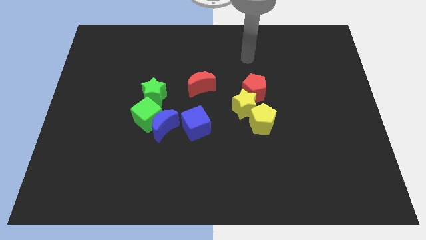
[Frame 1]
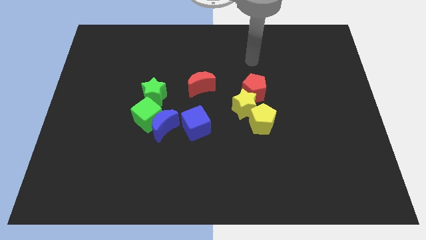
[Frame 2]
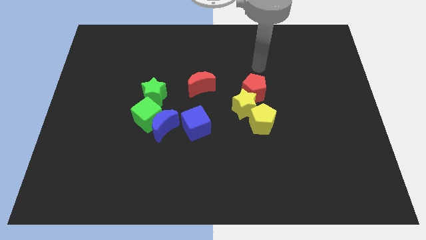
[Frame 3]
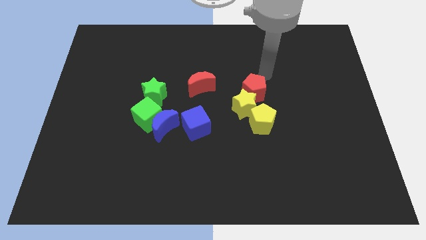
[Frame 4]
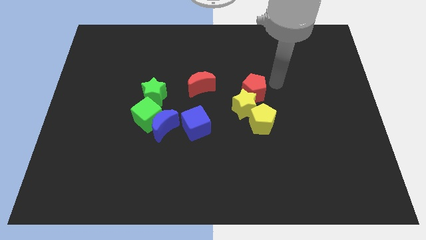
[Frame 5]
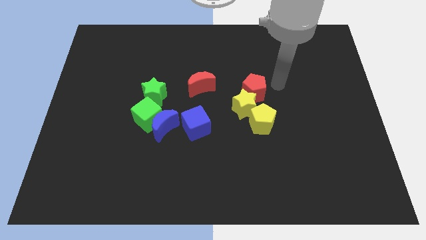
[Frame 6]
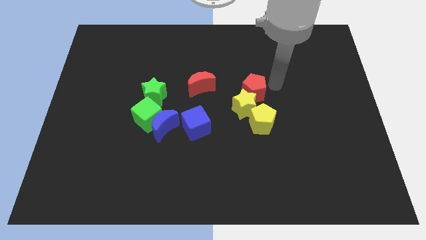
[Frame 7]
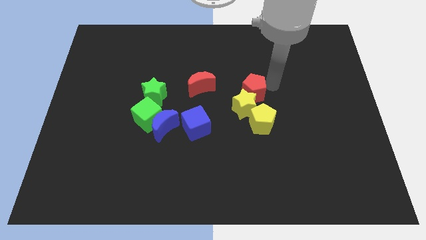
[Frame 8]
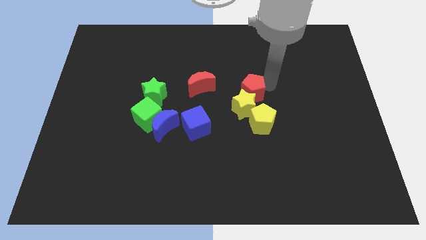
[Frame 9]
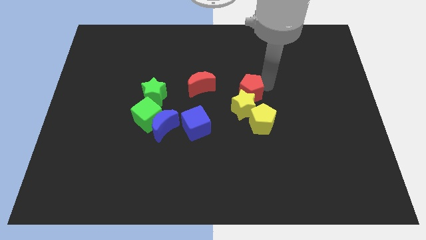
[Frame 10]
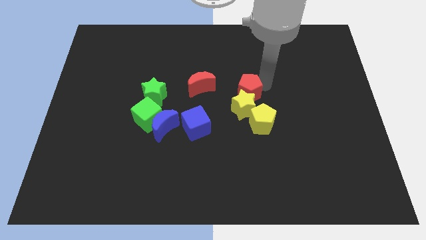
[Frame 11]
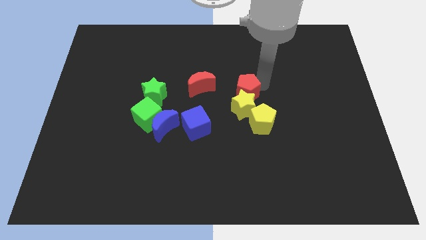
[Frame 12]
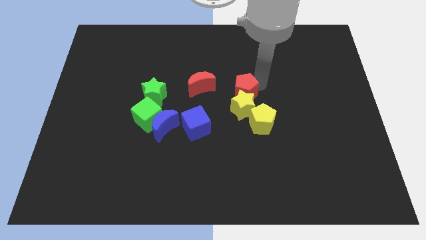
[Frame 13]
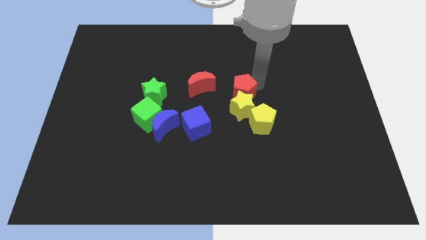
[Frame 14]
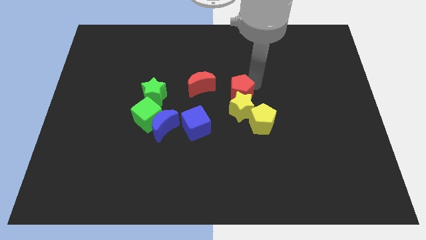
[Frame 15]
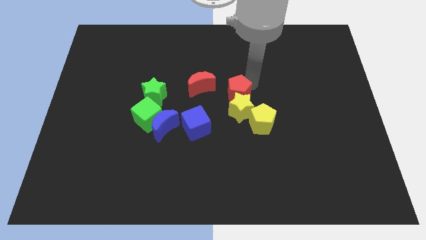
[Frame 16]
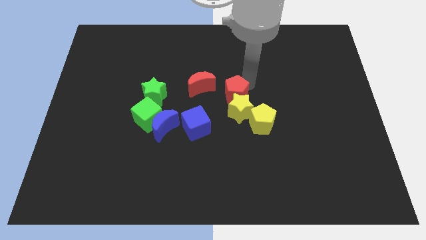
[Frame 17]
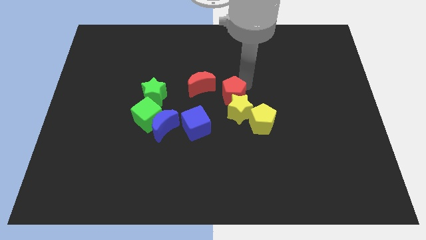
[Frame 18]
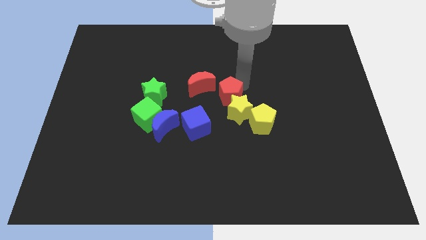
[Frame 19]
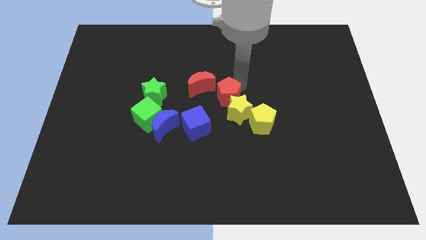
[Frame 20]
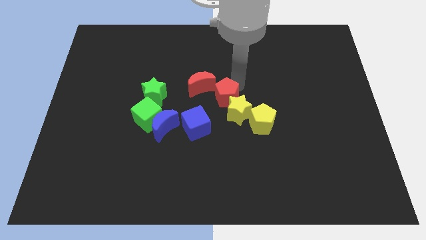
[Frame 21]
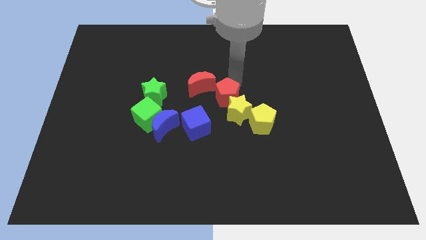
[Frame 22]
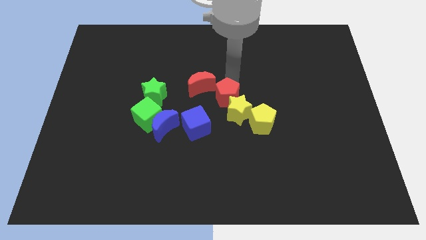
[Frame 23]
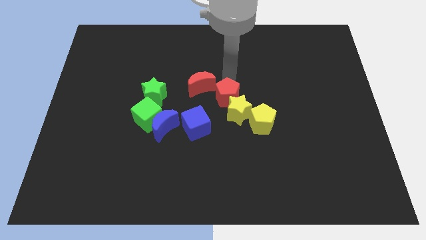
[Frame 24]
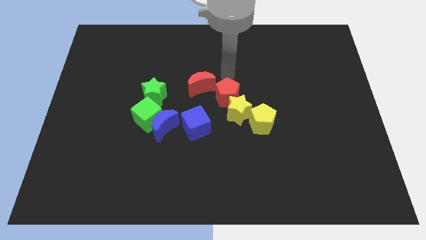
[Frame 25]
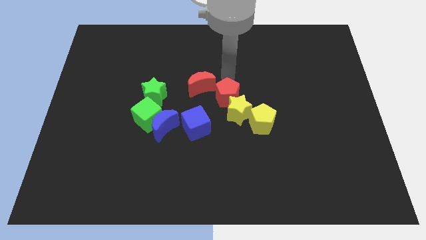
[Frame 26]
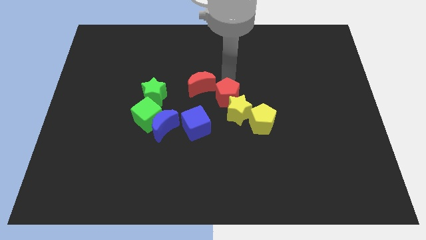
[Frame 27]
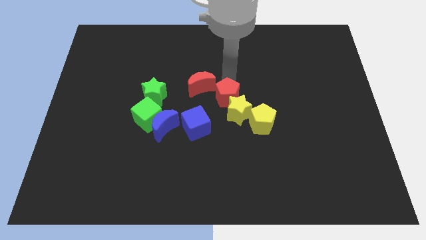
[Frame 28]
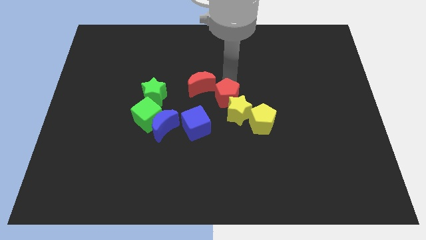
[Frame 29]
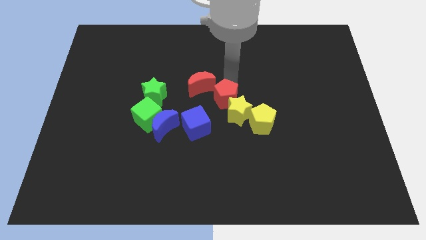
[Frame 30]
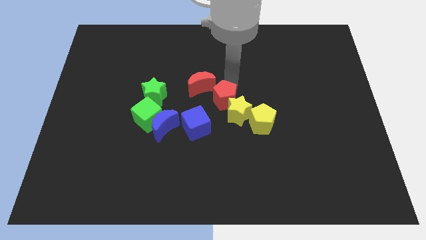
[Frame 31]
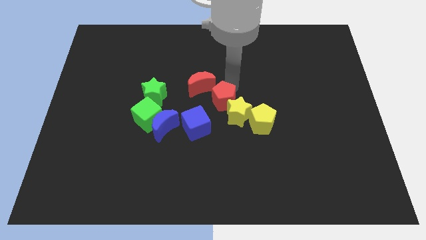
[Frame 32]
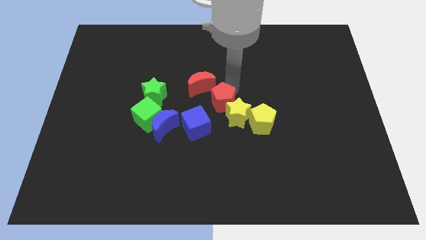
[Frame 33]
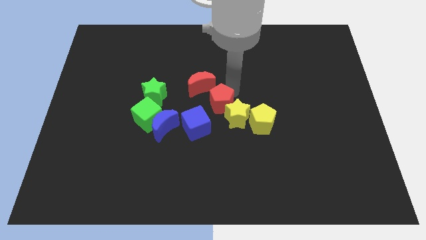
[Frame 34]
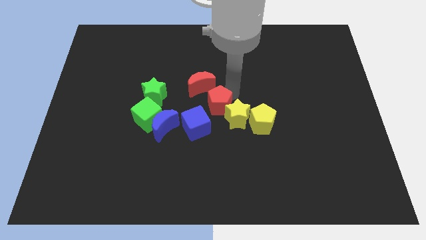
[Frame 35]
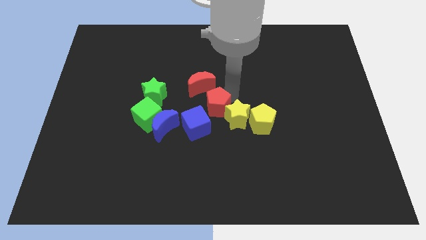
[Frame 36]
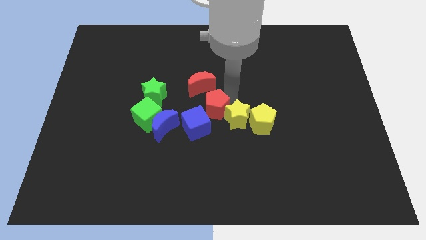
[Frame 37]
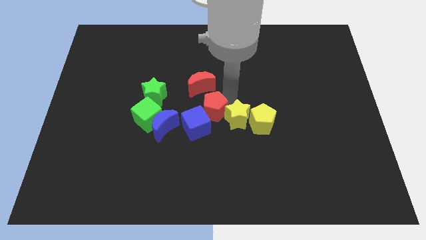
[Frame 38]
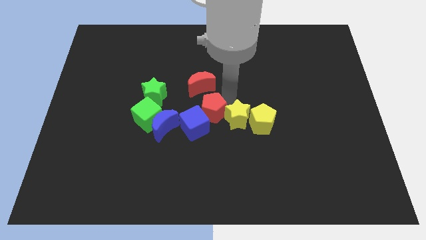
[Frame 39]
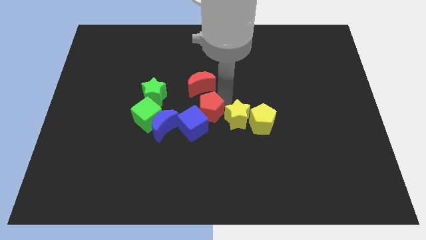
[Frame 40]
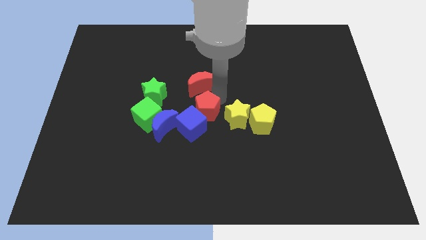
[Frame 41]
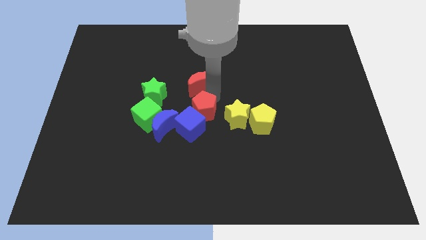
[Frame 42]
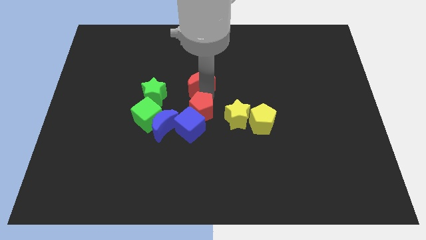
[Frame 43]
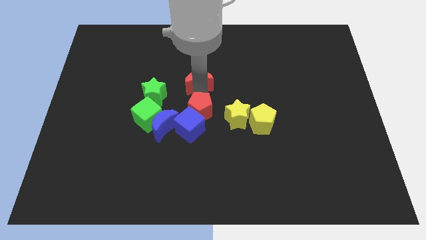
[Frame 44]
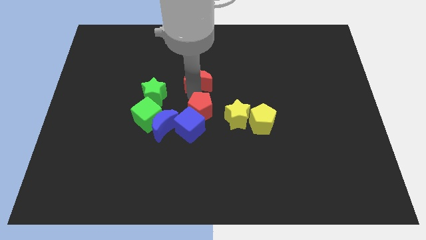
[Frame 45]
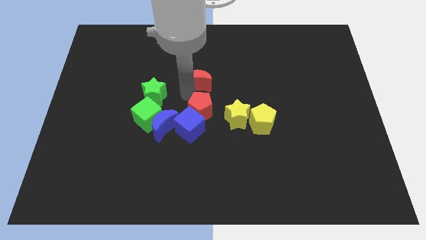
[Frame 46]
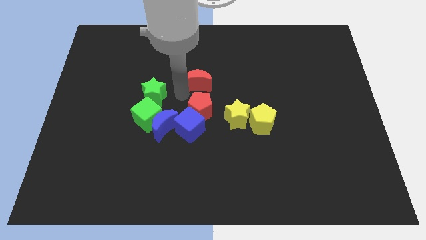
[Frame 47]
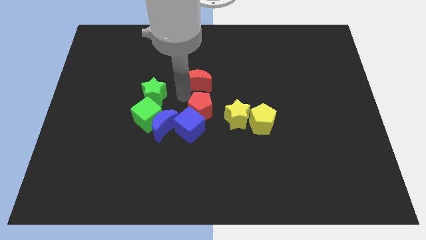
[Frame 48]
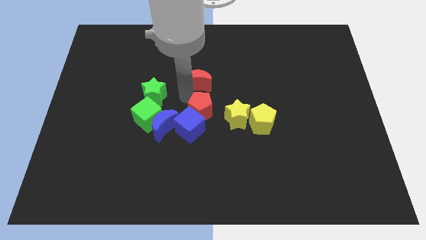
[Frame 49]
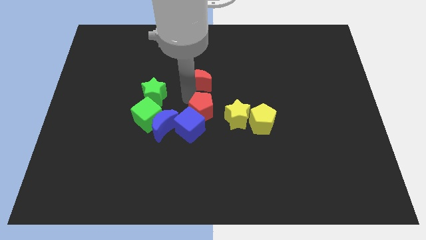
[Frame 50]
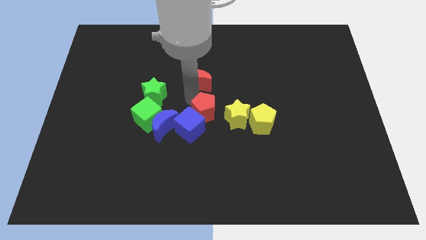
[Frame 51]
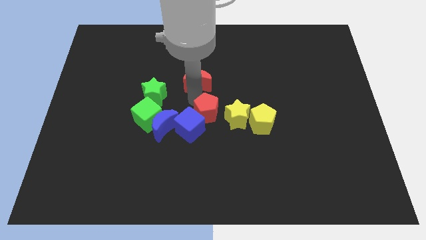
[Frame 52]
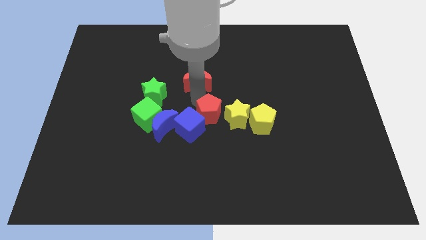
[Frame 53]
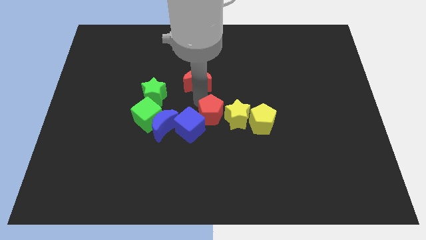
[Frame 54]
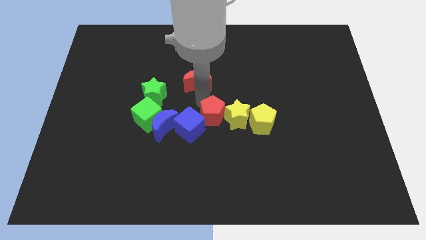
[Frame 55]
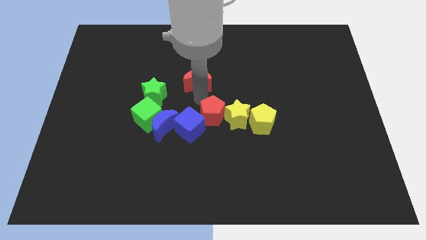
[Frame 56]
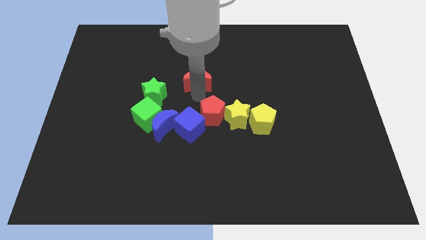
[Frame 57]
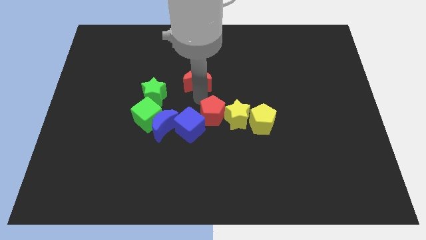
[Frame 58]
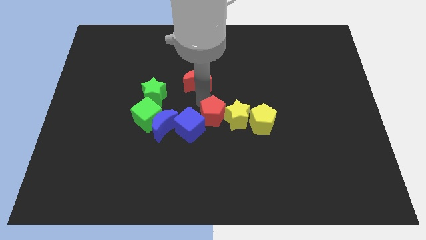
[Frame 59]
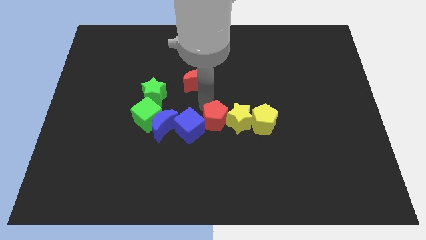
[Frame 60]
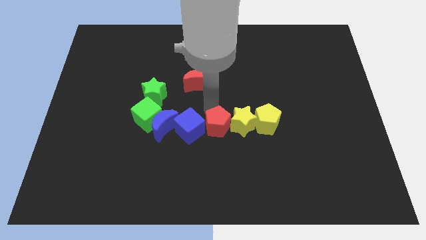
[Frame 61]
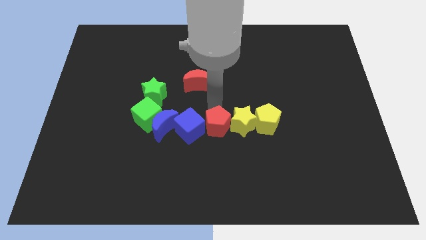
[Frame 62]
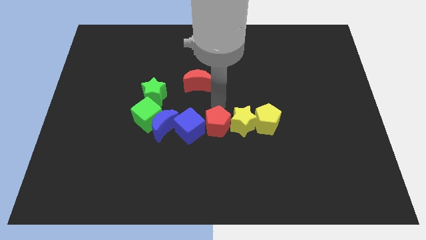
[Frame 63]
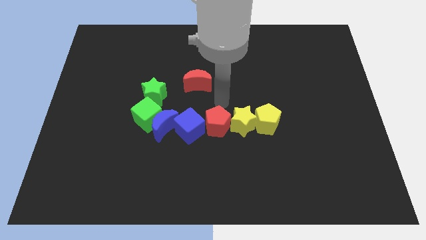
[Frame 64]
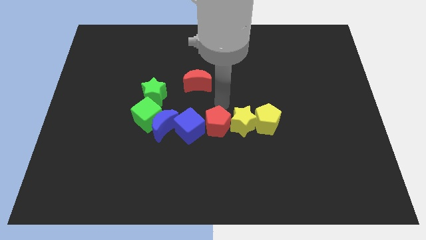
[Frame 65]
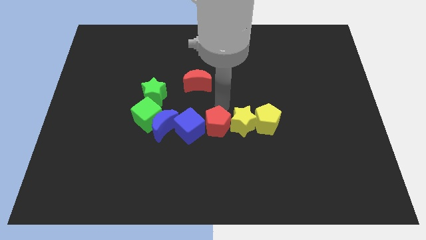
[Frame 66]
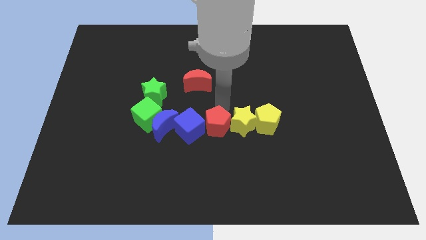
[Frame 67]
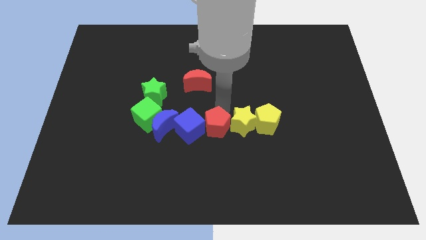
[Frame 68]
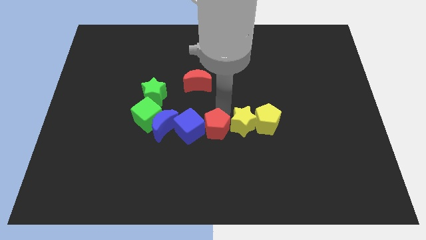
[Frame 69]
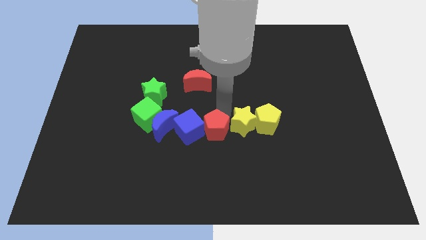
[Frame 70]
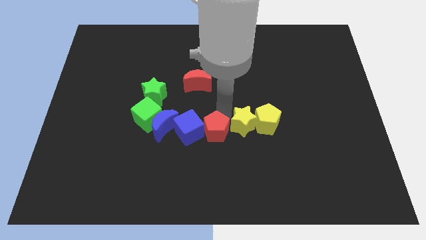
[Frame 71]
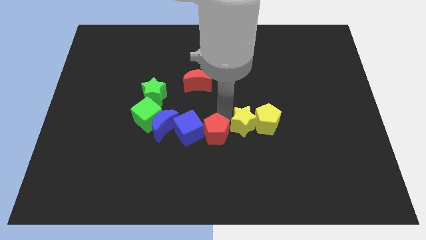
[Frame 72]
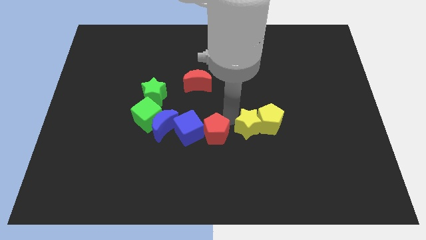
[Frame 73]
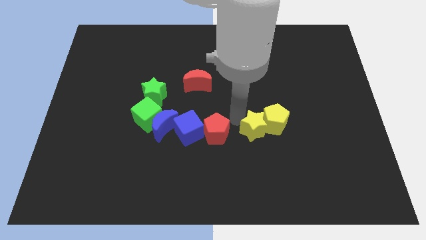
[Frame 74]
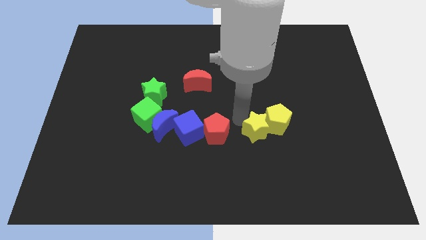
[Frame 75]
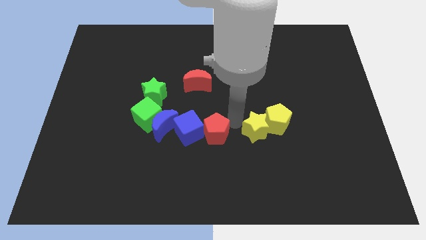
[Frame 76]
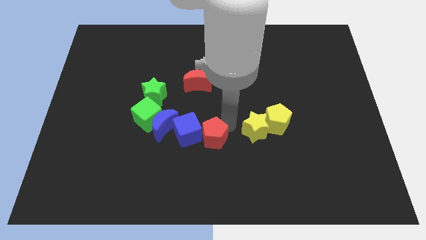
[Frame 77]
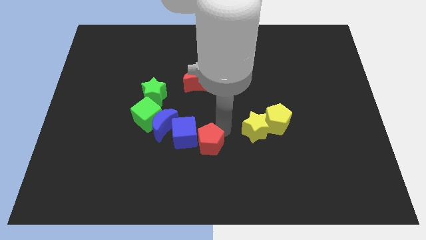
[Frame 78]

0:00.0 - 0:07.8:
push the red pentagon to the bottom right of the blue moon
